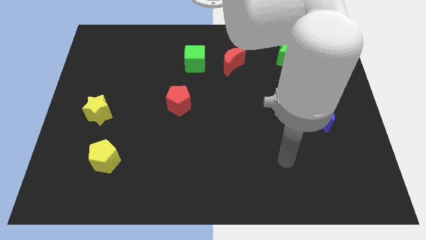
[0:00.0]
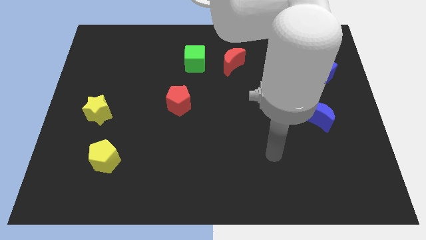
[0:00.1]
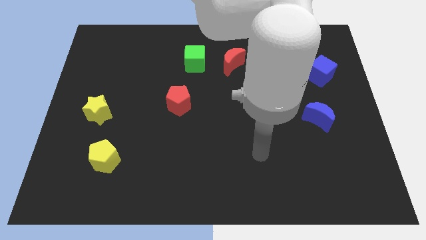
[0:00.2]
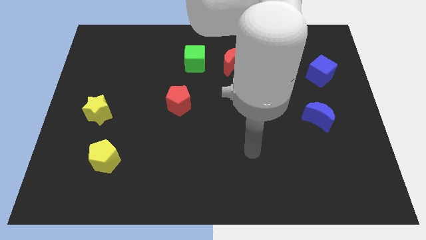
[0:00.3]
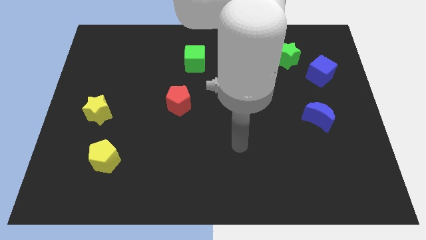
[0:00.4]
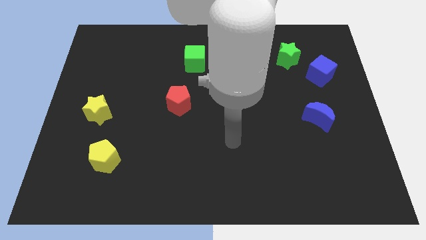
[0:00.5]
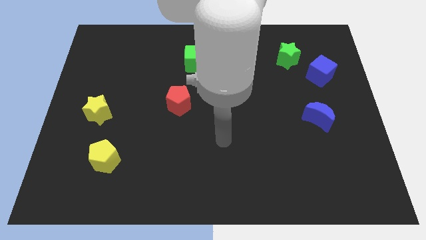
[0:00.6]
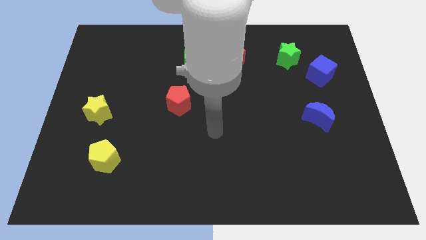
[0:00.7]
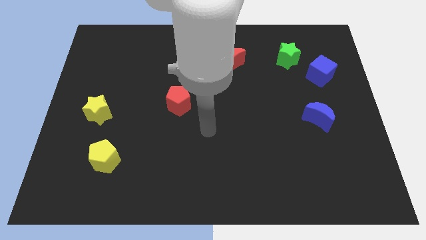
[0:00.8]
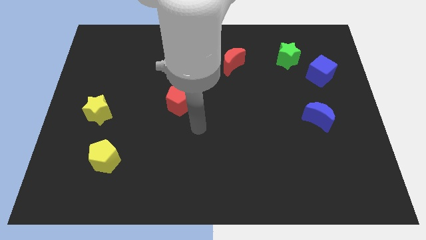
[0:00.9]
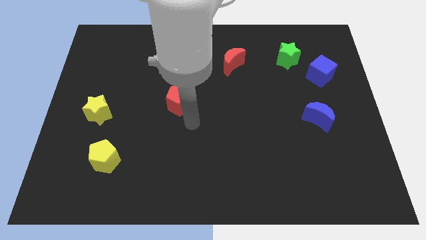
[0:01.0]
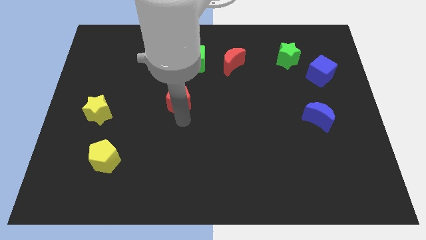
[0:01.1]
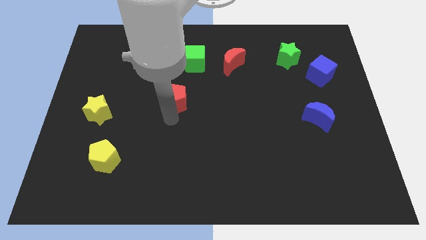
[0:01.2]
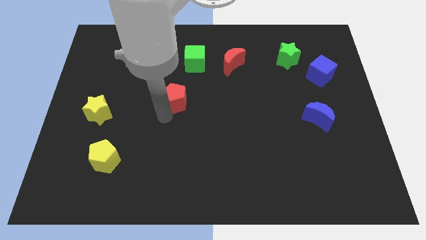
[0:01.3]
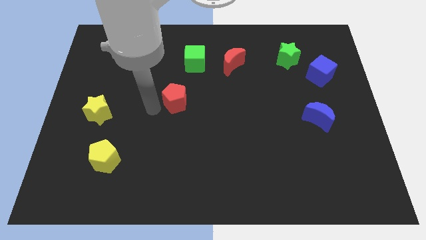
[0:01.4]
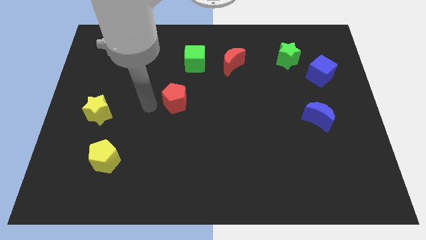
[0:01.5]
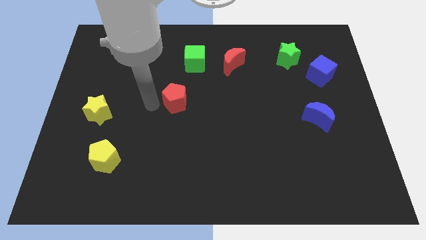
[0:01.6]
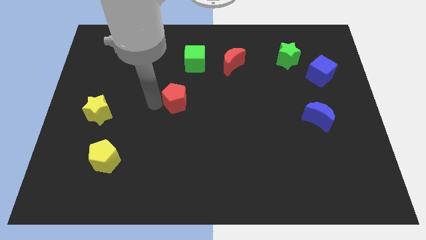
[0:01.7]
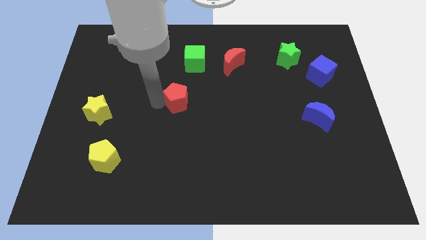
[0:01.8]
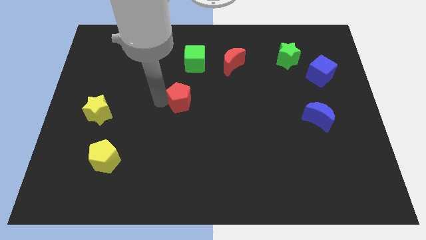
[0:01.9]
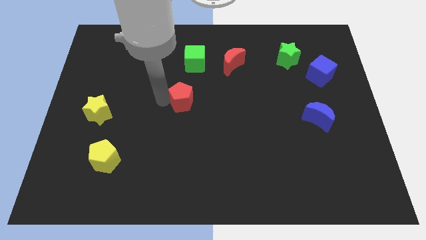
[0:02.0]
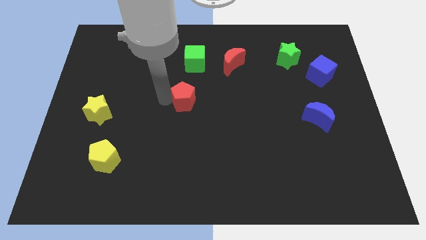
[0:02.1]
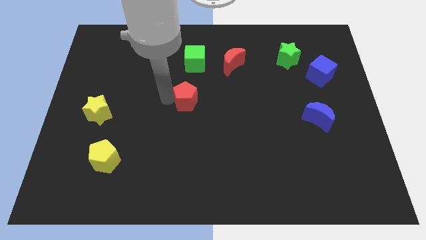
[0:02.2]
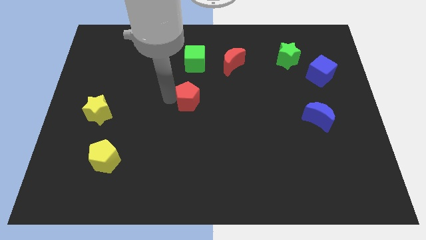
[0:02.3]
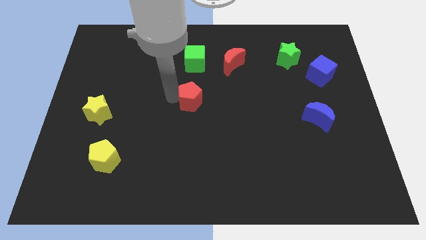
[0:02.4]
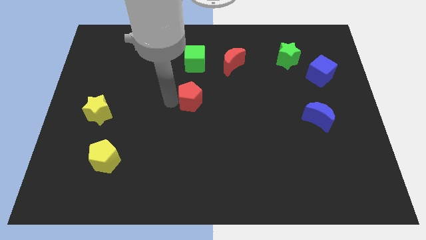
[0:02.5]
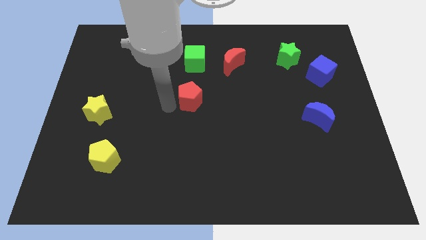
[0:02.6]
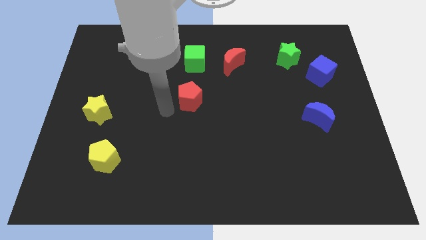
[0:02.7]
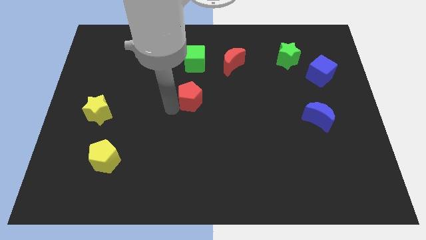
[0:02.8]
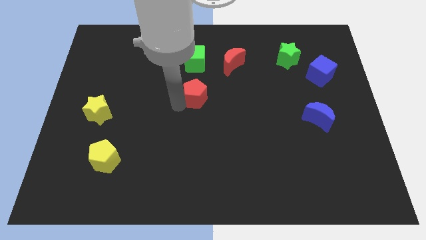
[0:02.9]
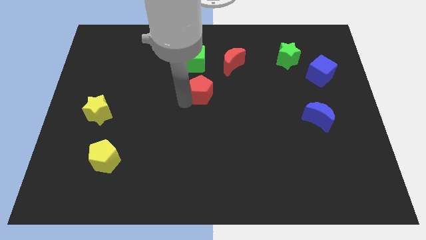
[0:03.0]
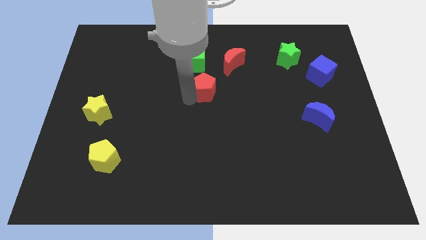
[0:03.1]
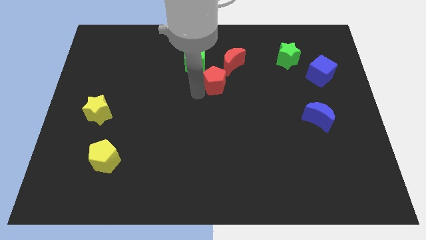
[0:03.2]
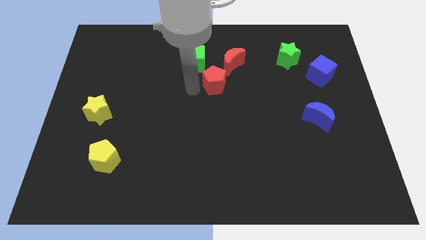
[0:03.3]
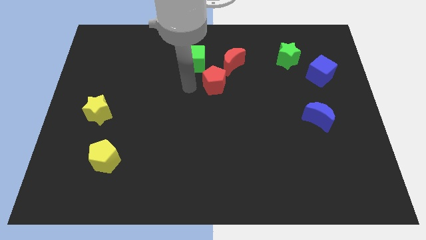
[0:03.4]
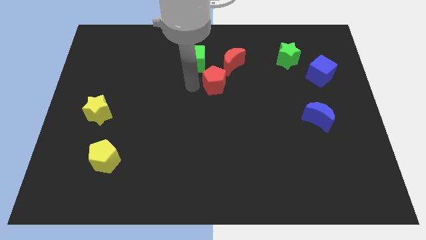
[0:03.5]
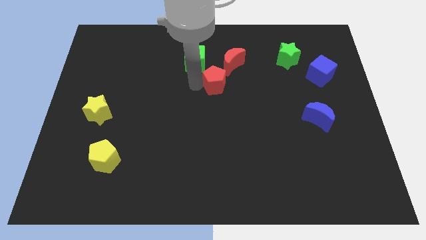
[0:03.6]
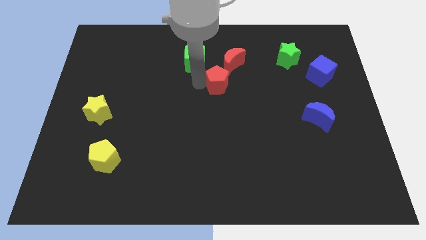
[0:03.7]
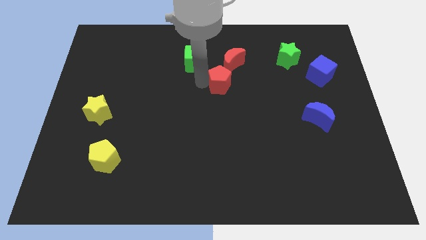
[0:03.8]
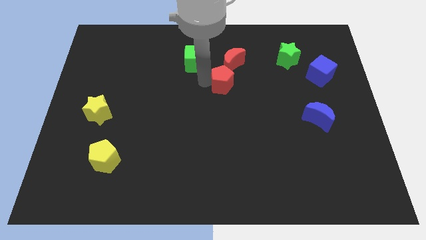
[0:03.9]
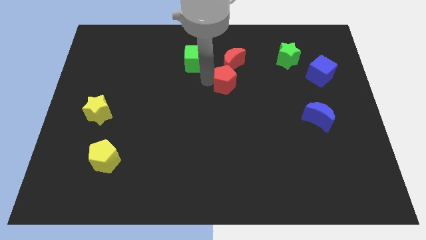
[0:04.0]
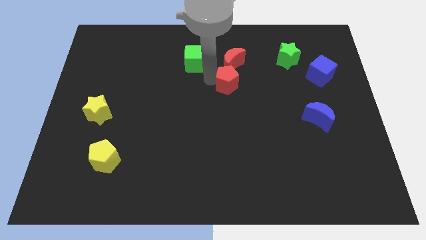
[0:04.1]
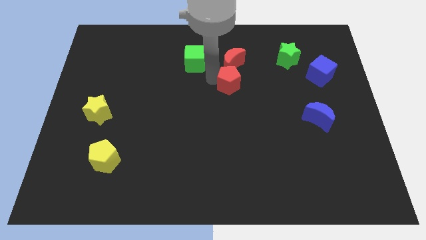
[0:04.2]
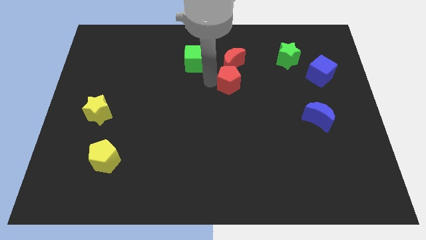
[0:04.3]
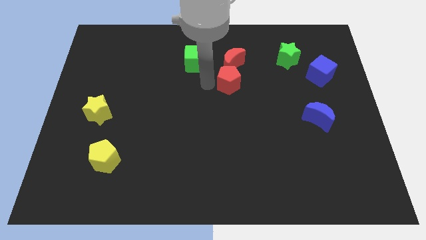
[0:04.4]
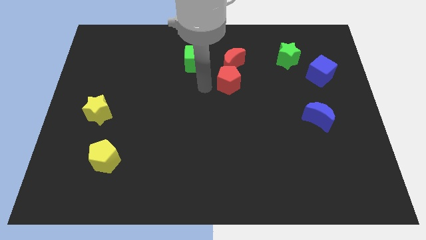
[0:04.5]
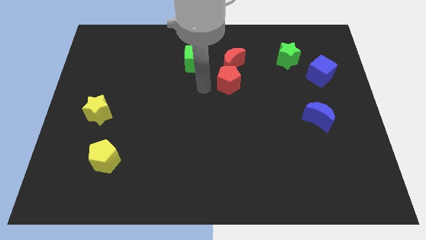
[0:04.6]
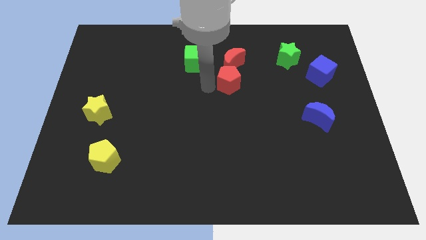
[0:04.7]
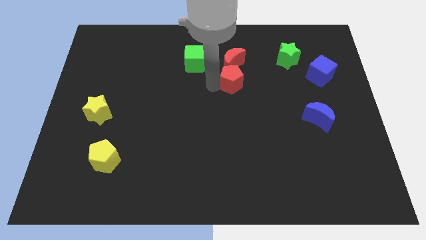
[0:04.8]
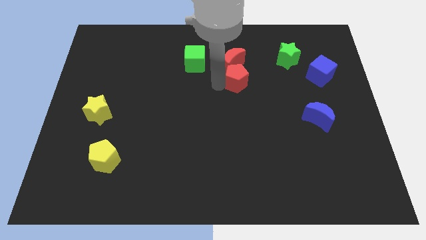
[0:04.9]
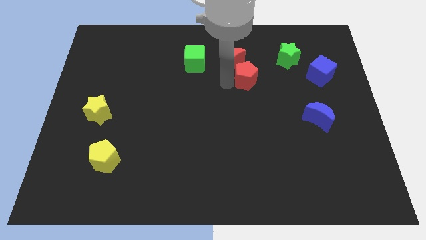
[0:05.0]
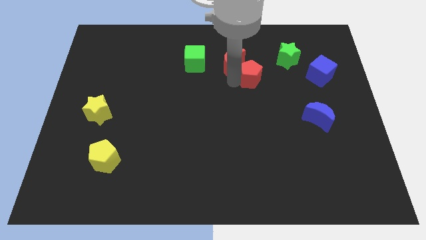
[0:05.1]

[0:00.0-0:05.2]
slide the red pentagon to the bottom left of the green star

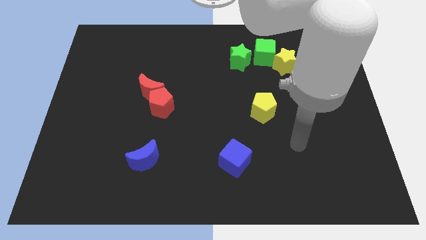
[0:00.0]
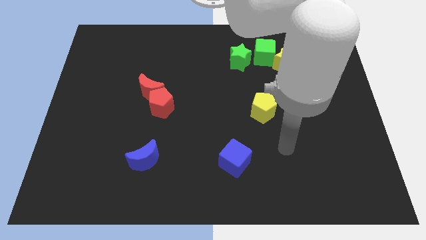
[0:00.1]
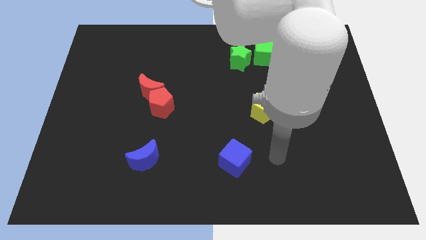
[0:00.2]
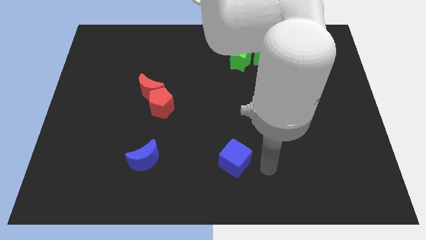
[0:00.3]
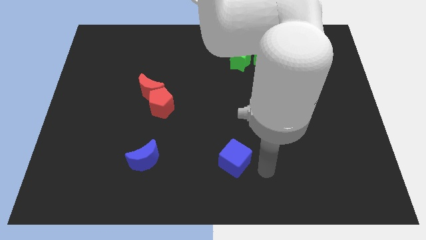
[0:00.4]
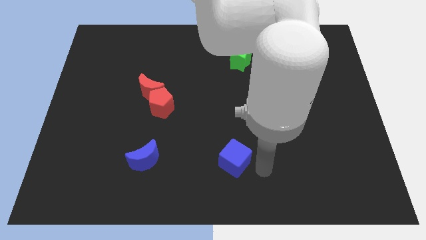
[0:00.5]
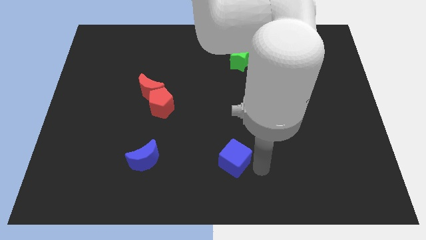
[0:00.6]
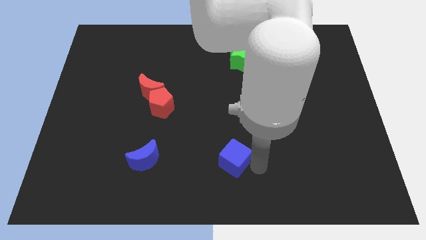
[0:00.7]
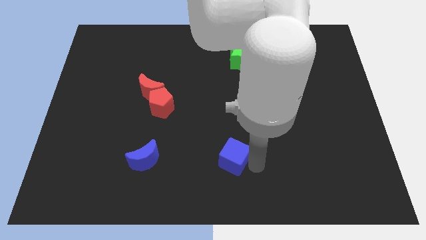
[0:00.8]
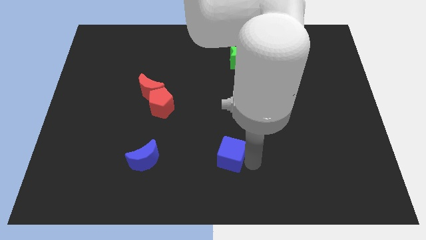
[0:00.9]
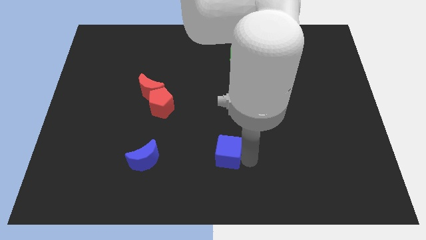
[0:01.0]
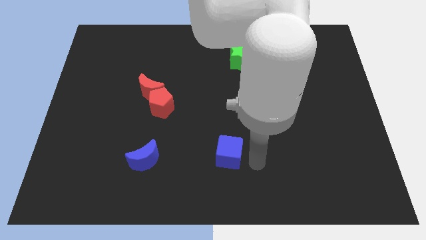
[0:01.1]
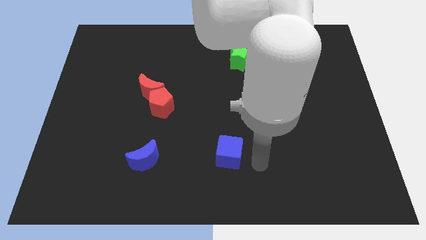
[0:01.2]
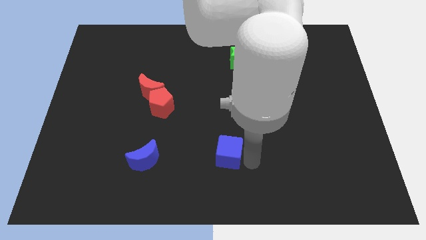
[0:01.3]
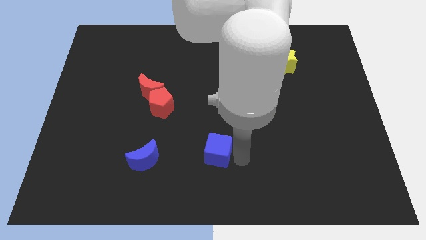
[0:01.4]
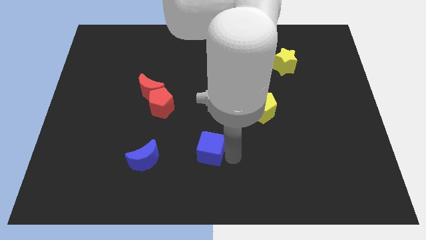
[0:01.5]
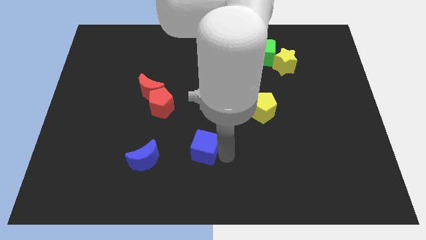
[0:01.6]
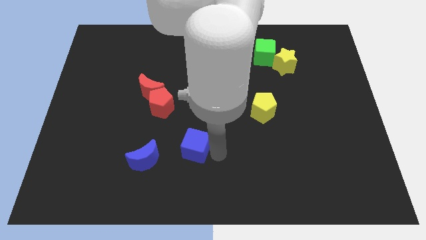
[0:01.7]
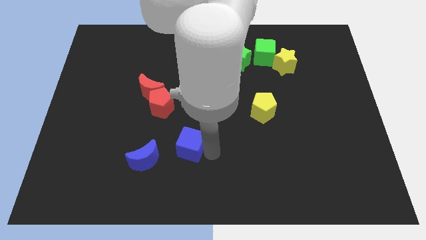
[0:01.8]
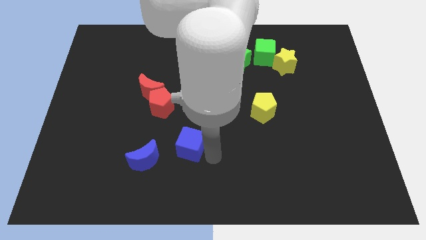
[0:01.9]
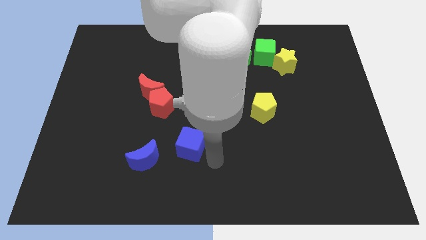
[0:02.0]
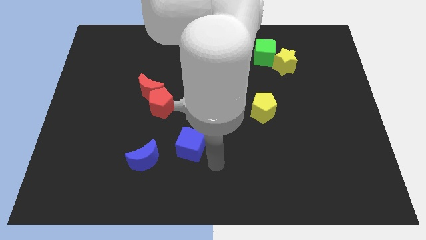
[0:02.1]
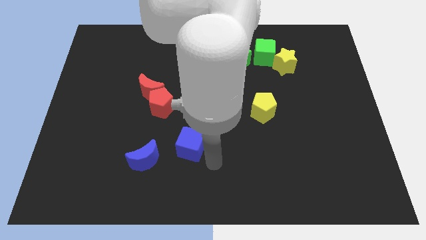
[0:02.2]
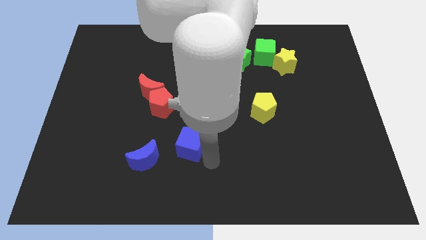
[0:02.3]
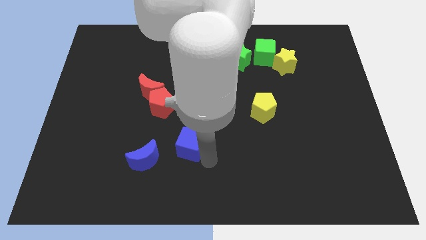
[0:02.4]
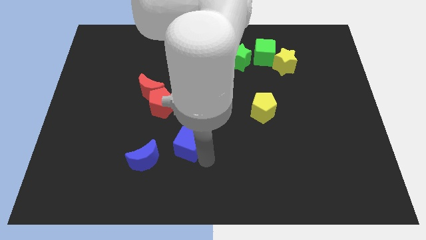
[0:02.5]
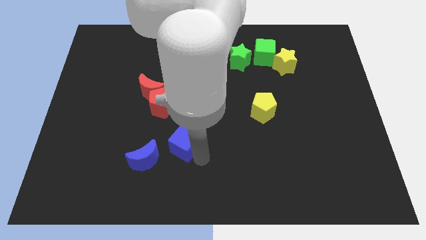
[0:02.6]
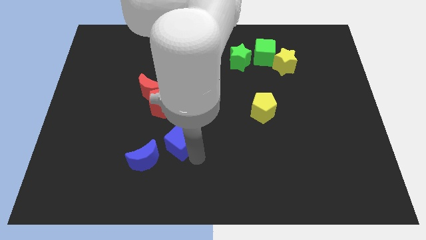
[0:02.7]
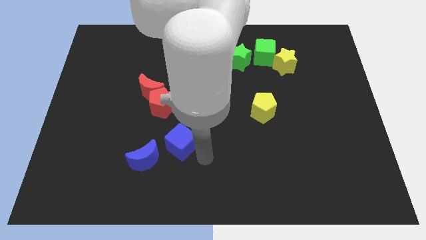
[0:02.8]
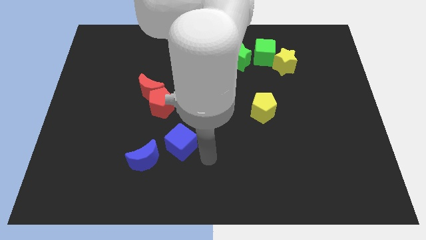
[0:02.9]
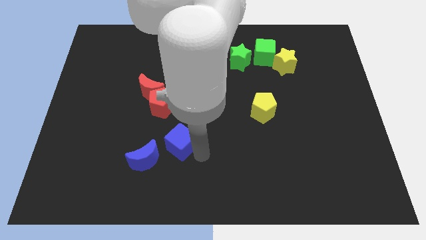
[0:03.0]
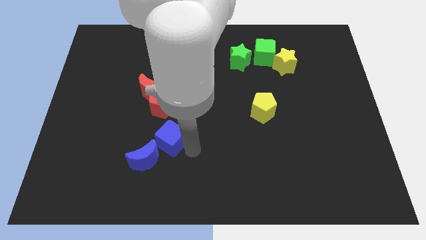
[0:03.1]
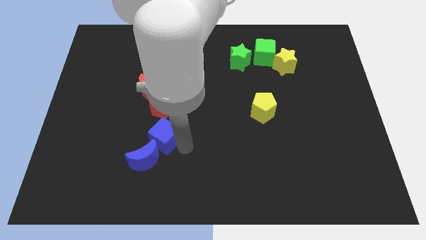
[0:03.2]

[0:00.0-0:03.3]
put the blue cube below the red moon
